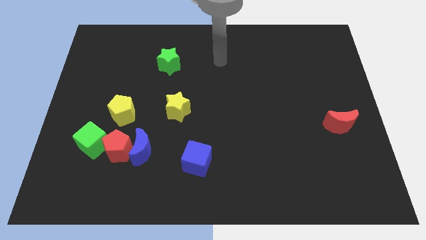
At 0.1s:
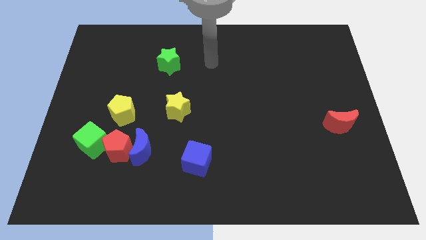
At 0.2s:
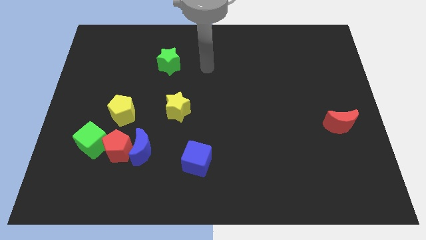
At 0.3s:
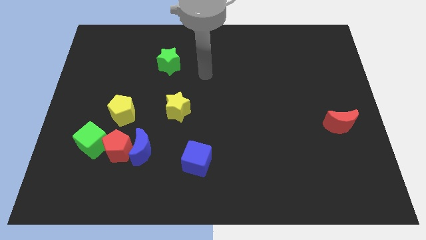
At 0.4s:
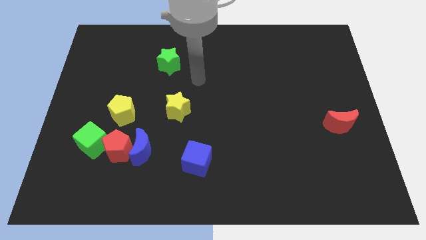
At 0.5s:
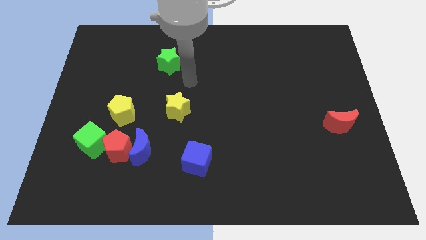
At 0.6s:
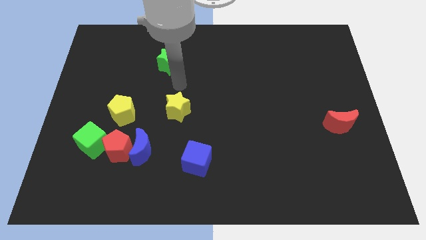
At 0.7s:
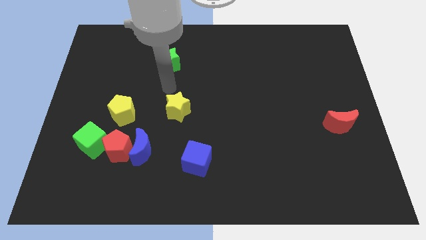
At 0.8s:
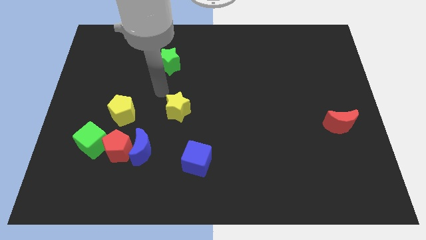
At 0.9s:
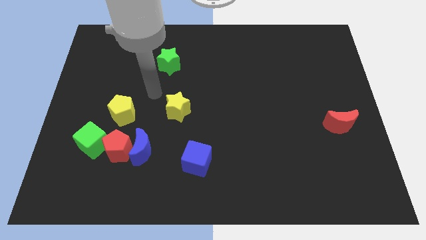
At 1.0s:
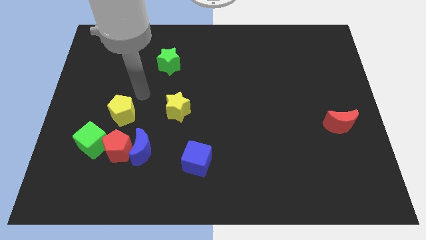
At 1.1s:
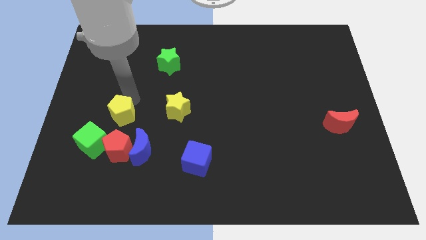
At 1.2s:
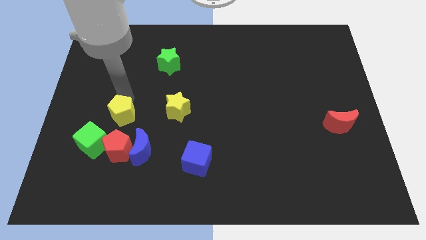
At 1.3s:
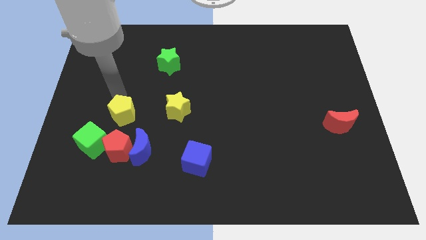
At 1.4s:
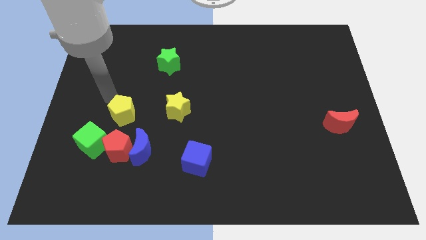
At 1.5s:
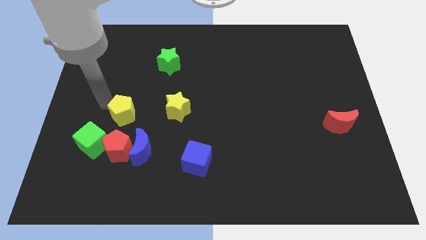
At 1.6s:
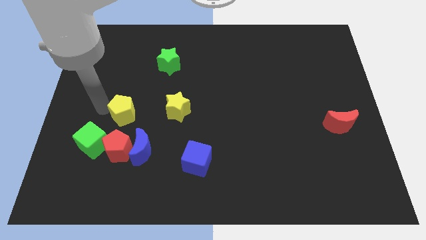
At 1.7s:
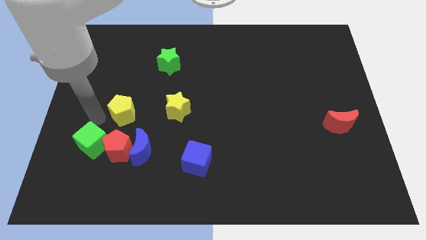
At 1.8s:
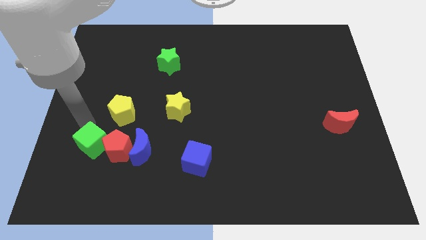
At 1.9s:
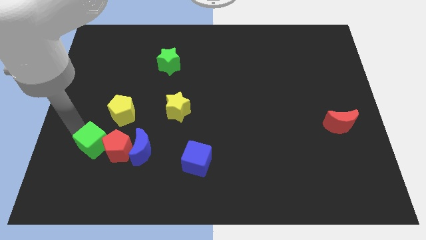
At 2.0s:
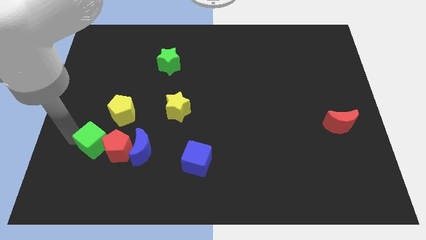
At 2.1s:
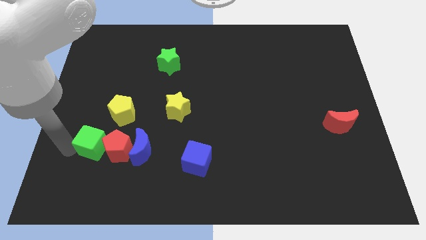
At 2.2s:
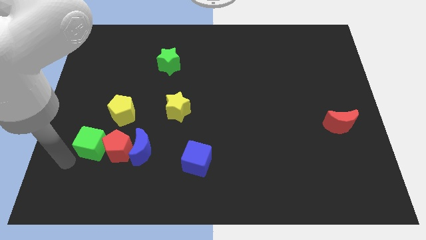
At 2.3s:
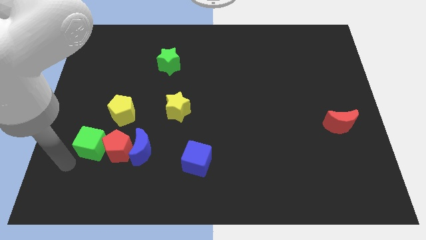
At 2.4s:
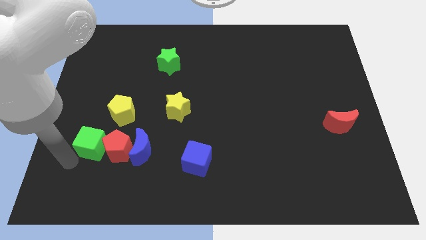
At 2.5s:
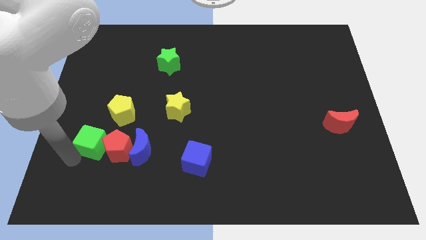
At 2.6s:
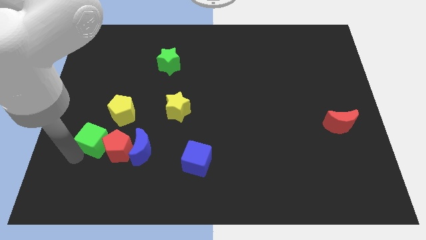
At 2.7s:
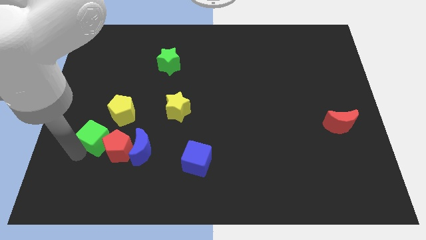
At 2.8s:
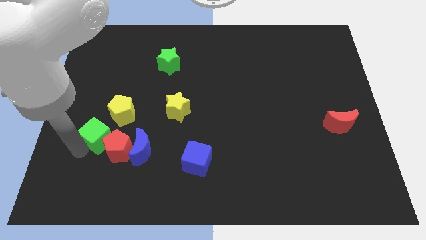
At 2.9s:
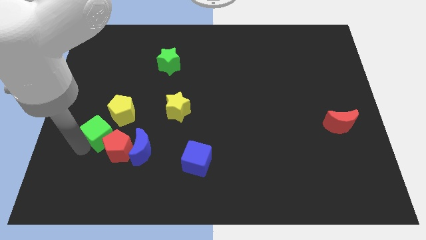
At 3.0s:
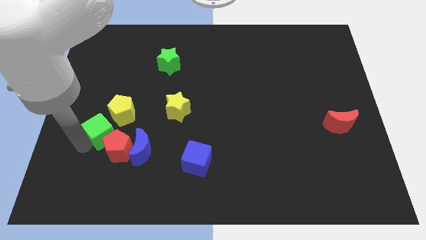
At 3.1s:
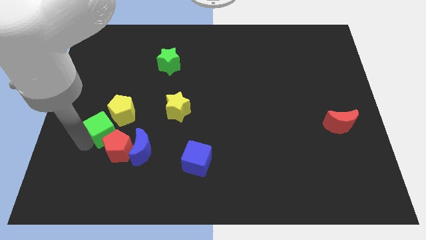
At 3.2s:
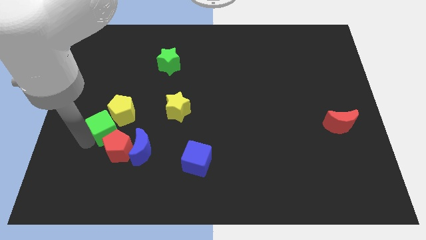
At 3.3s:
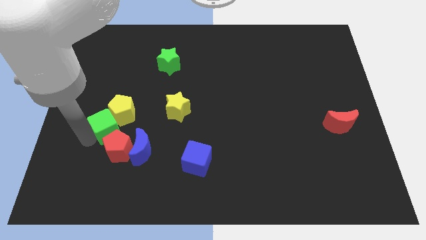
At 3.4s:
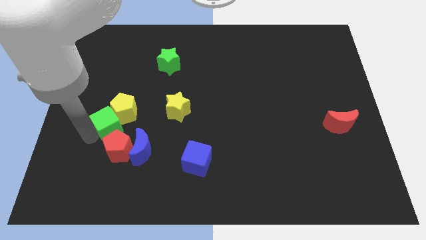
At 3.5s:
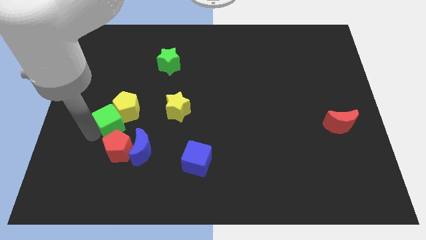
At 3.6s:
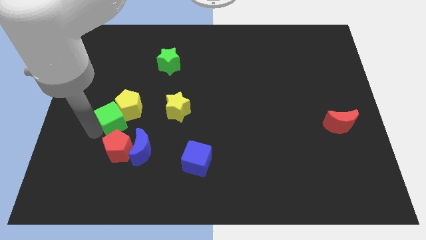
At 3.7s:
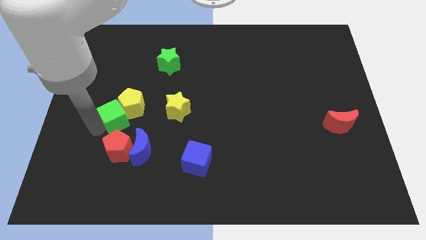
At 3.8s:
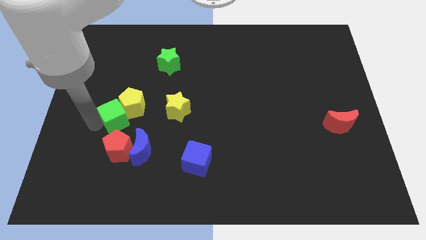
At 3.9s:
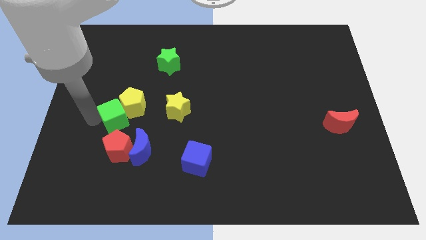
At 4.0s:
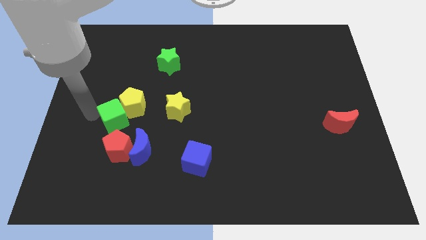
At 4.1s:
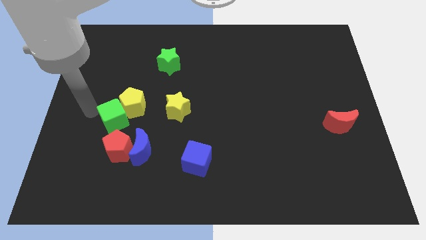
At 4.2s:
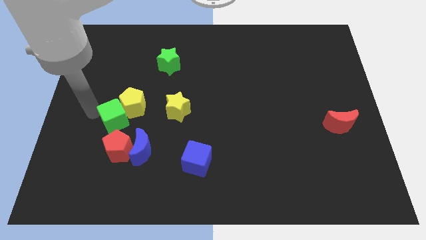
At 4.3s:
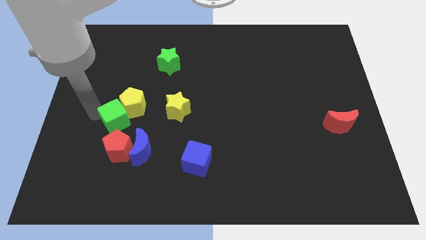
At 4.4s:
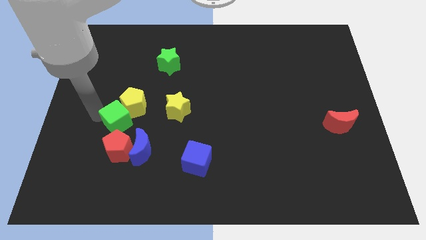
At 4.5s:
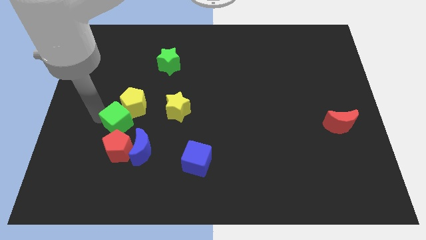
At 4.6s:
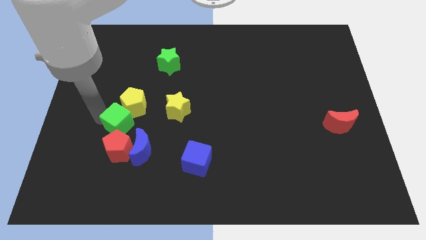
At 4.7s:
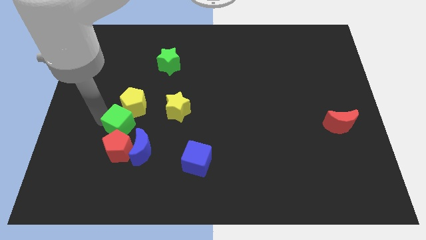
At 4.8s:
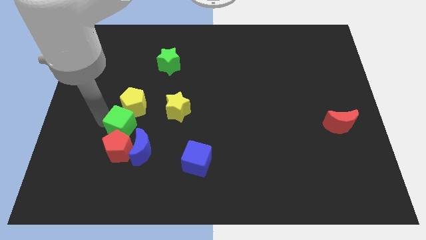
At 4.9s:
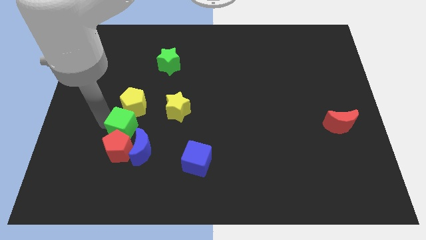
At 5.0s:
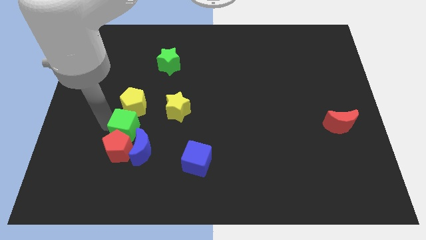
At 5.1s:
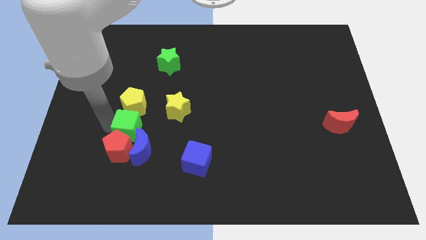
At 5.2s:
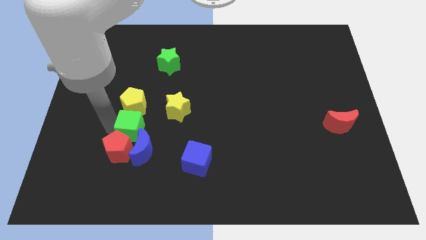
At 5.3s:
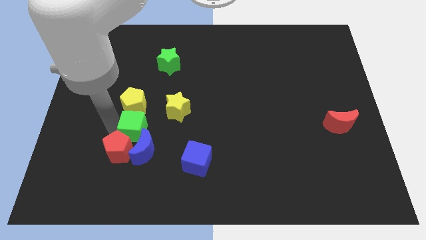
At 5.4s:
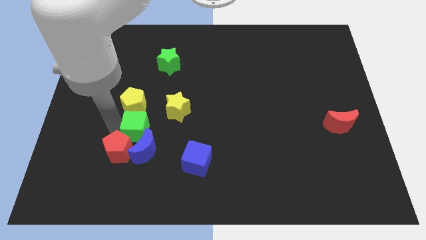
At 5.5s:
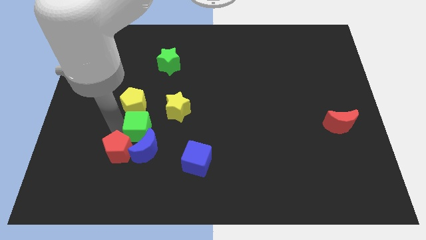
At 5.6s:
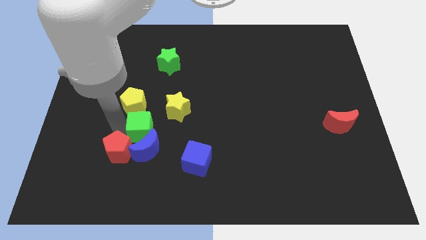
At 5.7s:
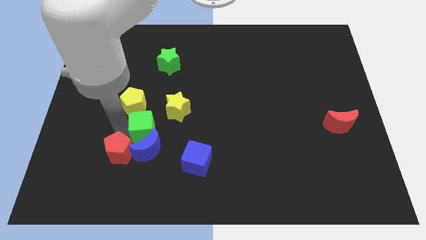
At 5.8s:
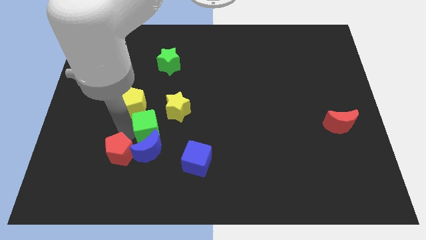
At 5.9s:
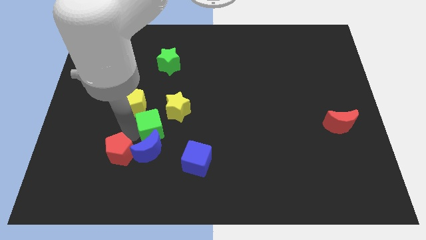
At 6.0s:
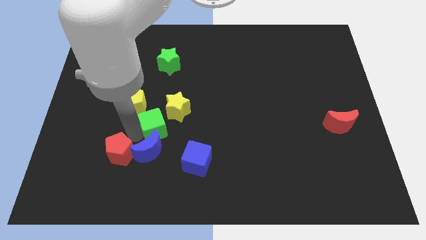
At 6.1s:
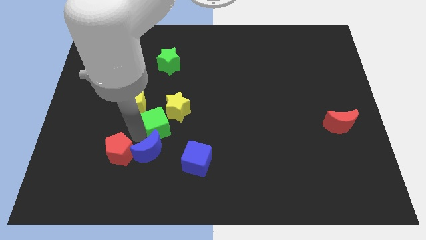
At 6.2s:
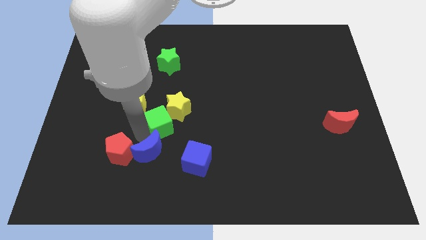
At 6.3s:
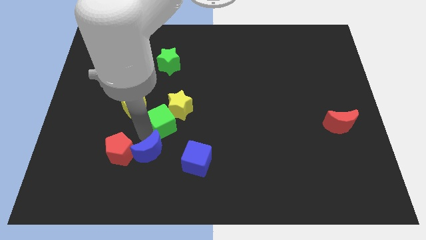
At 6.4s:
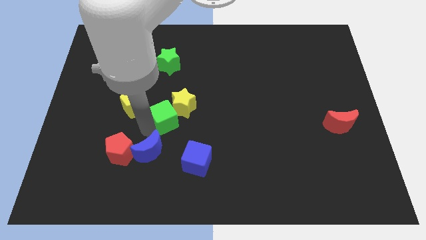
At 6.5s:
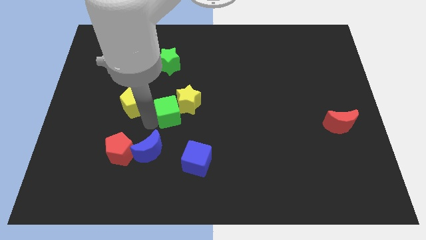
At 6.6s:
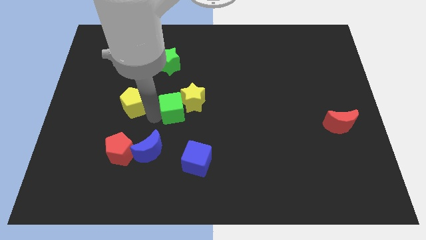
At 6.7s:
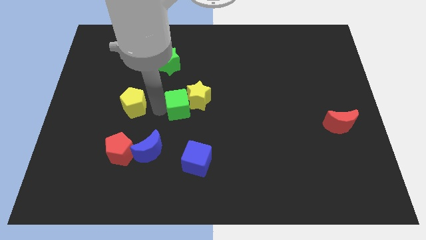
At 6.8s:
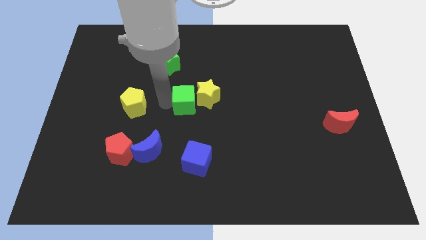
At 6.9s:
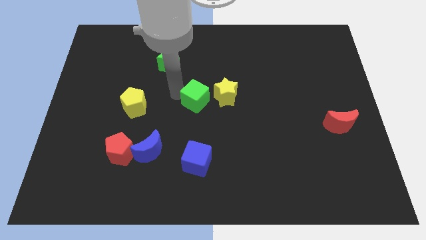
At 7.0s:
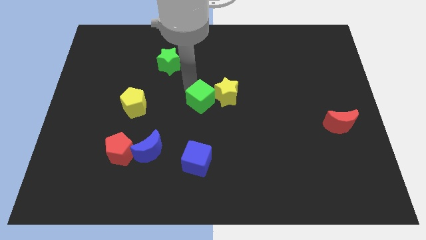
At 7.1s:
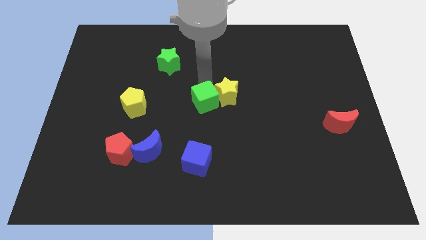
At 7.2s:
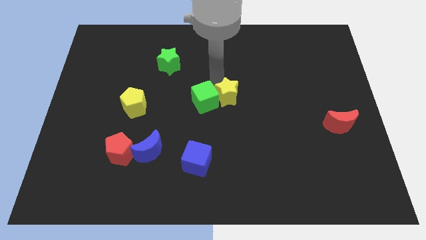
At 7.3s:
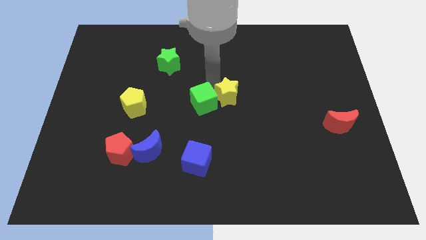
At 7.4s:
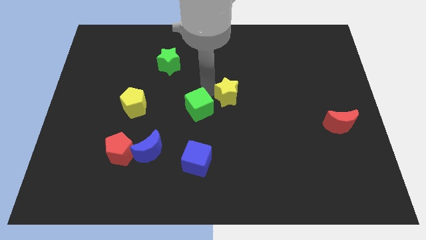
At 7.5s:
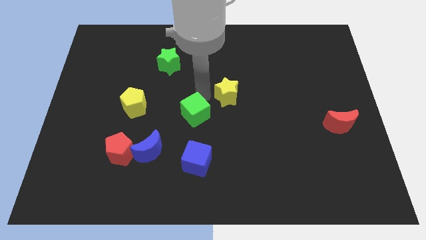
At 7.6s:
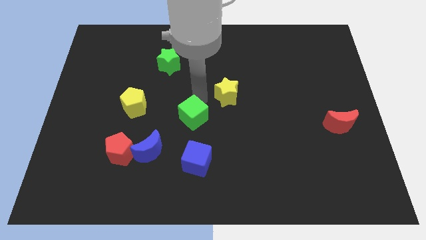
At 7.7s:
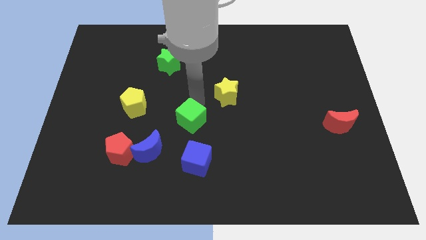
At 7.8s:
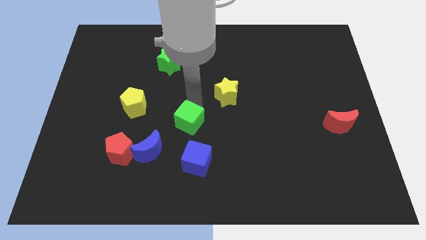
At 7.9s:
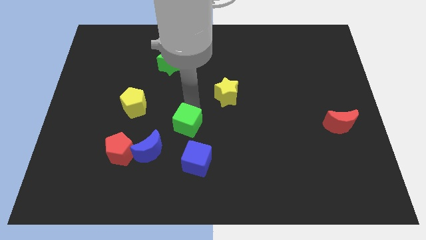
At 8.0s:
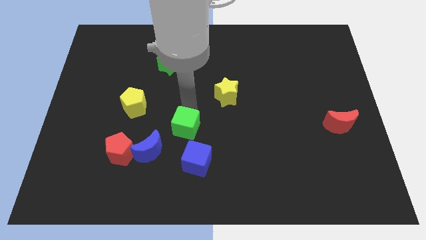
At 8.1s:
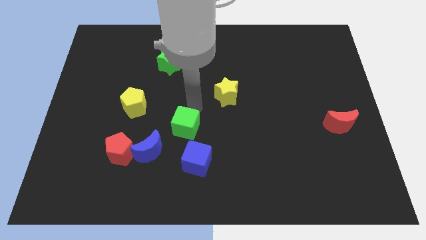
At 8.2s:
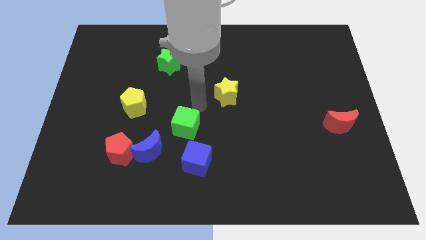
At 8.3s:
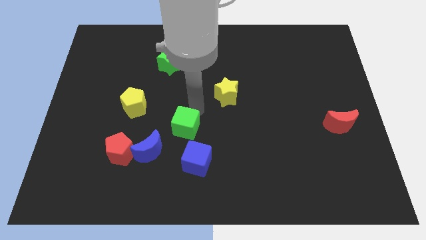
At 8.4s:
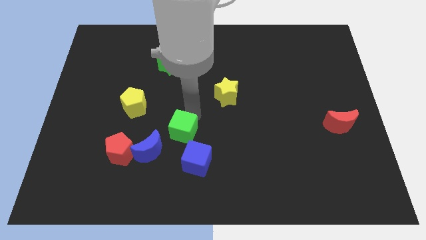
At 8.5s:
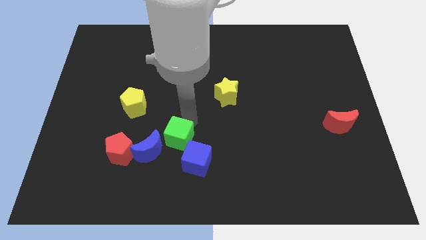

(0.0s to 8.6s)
push the green cube right of the red pentagon
